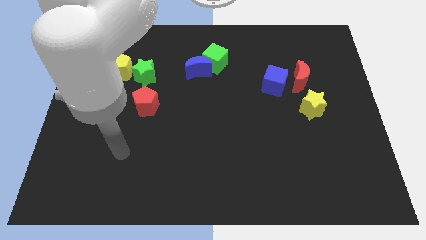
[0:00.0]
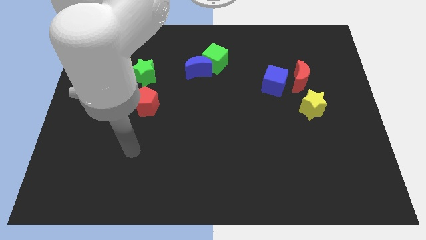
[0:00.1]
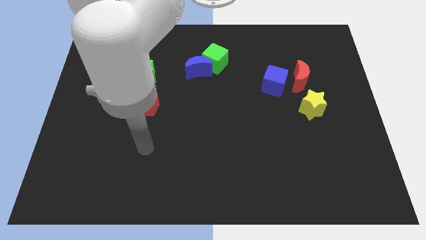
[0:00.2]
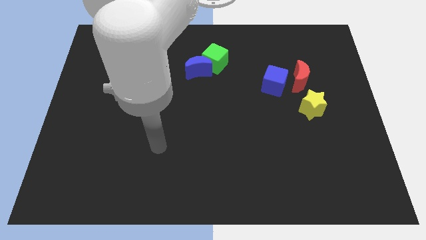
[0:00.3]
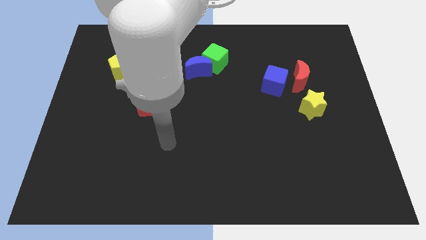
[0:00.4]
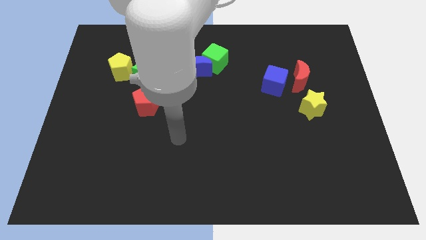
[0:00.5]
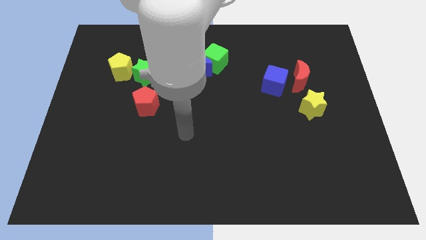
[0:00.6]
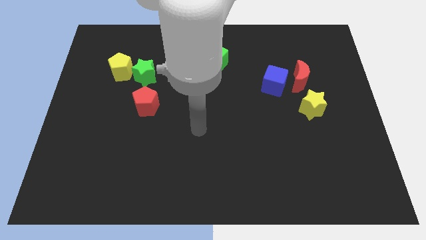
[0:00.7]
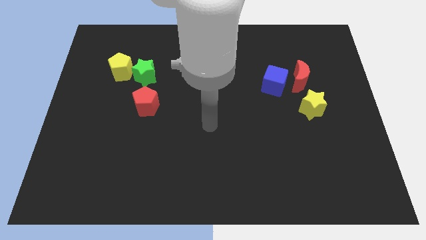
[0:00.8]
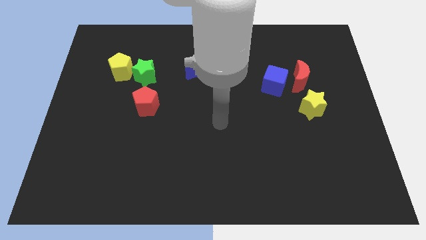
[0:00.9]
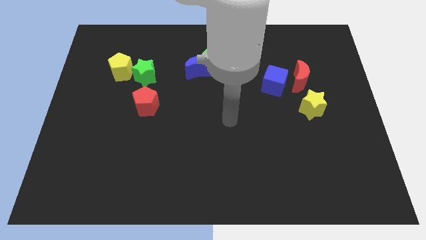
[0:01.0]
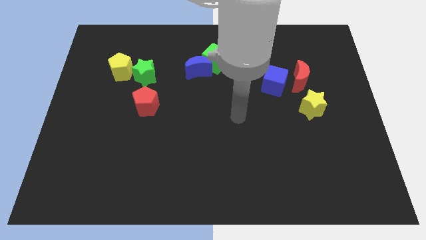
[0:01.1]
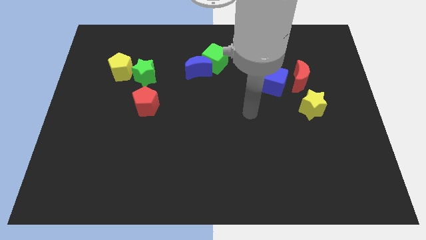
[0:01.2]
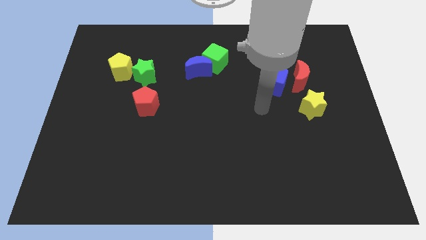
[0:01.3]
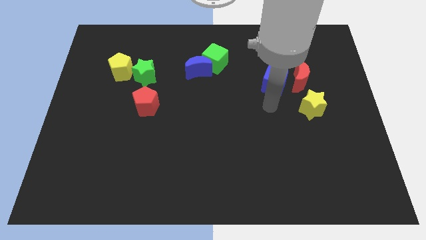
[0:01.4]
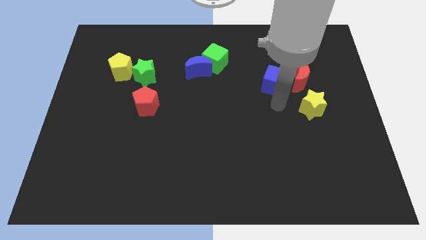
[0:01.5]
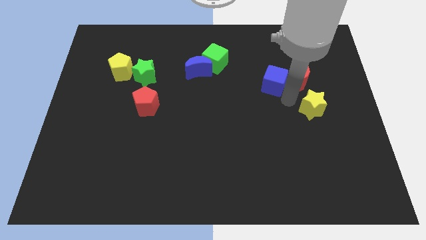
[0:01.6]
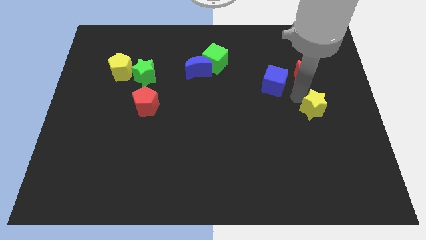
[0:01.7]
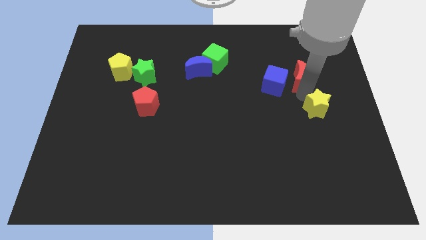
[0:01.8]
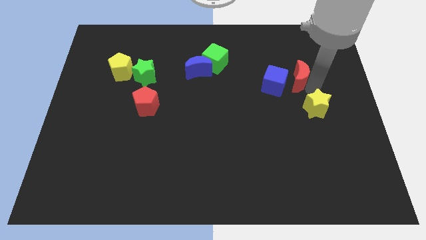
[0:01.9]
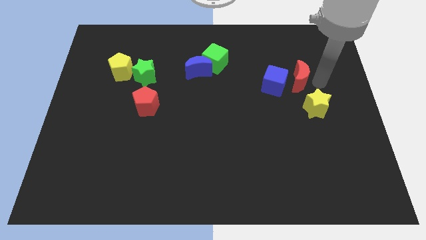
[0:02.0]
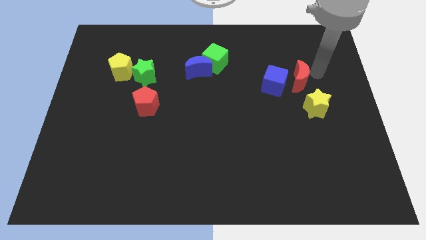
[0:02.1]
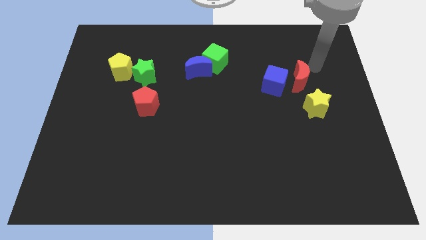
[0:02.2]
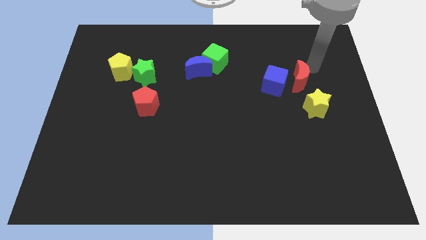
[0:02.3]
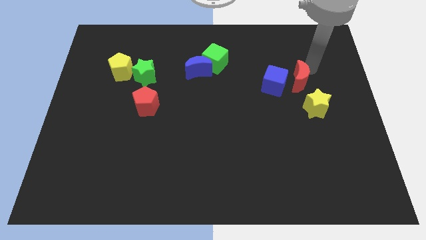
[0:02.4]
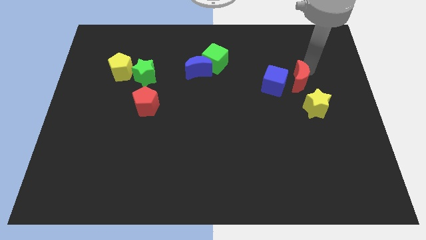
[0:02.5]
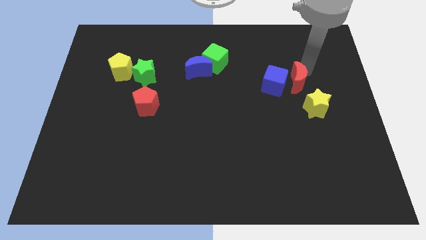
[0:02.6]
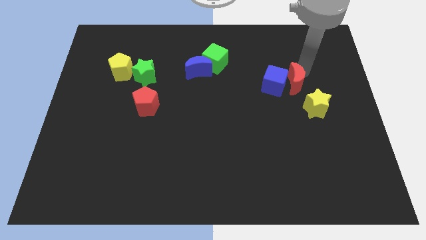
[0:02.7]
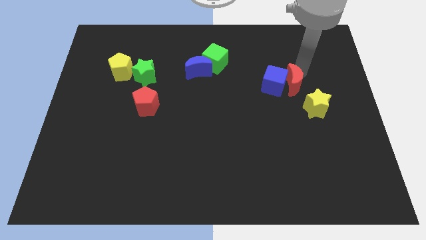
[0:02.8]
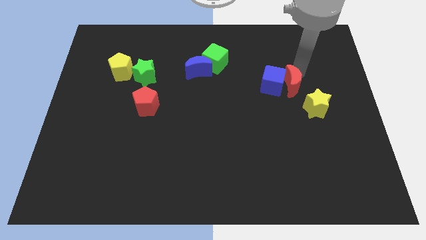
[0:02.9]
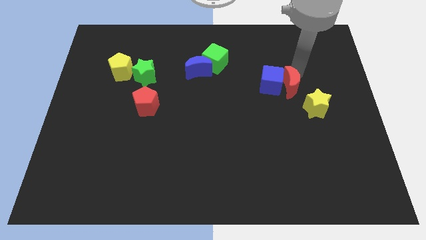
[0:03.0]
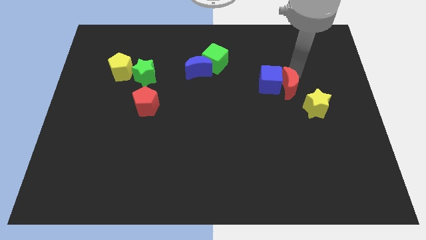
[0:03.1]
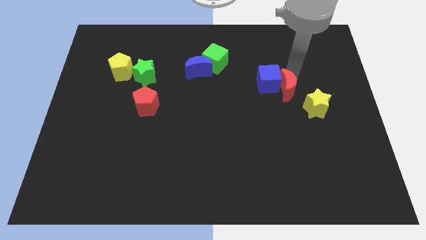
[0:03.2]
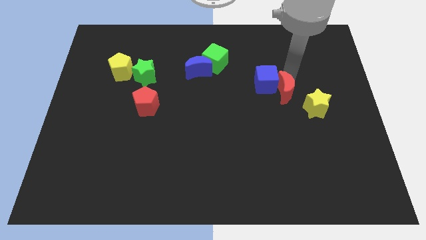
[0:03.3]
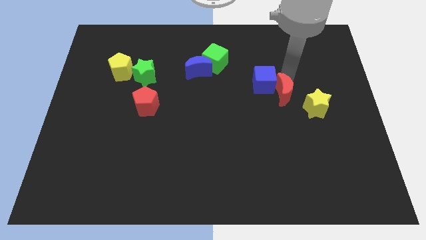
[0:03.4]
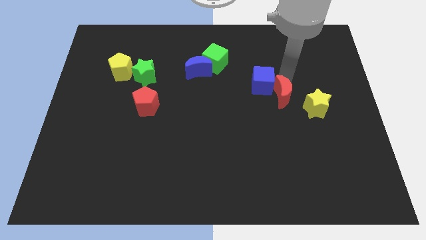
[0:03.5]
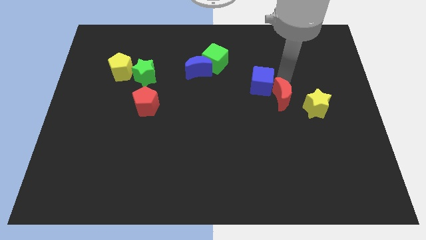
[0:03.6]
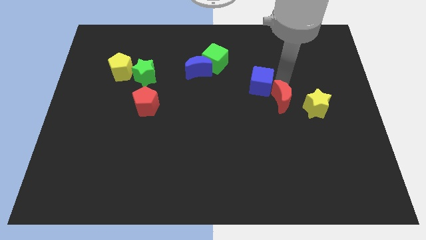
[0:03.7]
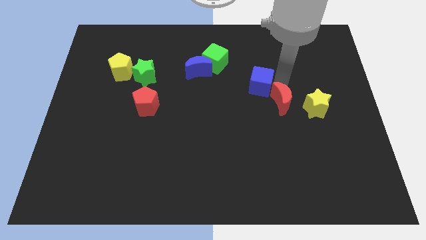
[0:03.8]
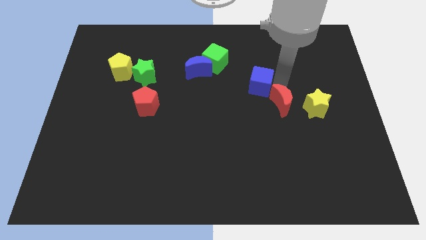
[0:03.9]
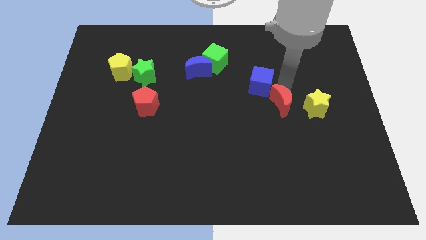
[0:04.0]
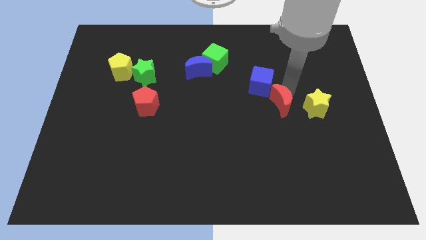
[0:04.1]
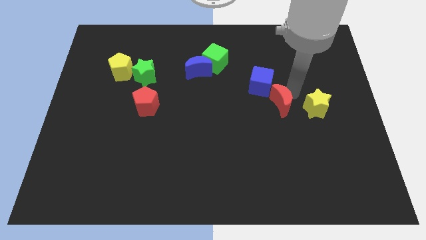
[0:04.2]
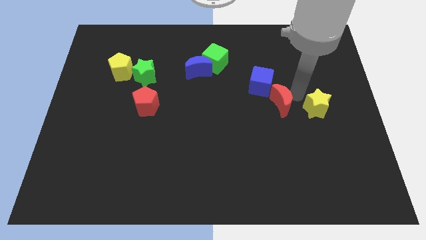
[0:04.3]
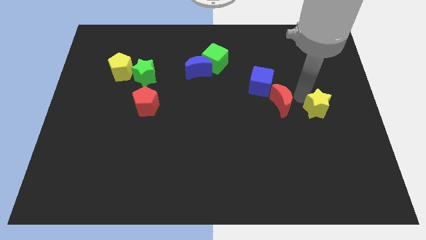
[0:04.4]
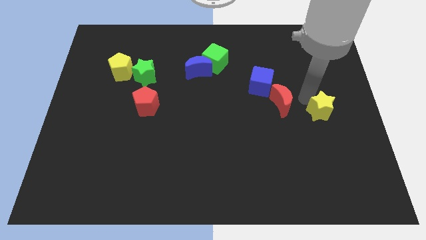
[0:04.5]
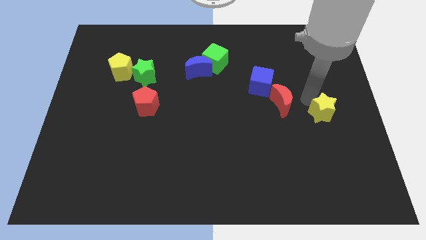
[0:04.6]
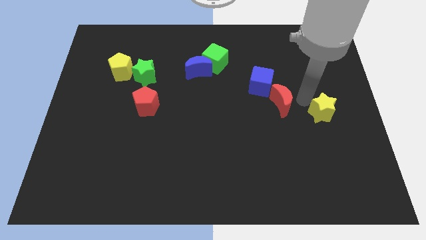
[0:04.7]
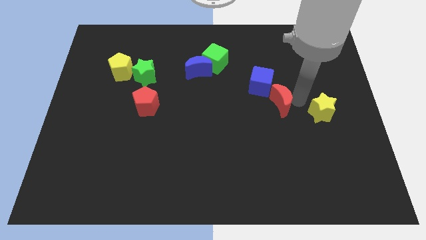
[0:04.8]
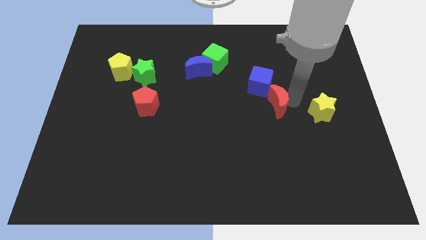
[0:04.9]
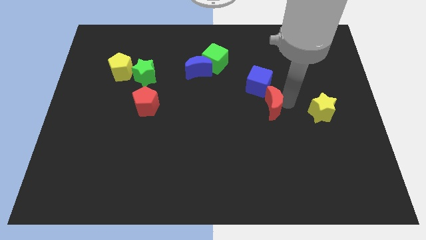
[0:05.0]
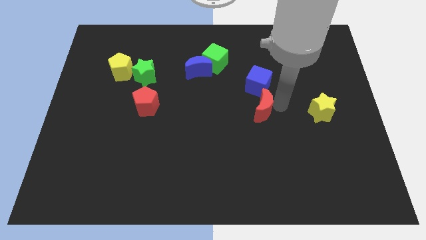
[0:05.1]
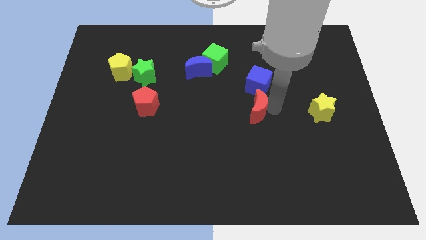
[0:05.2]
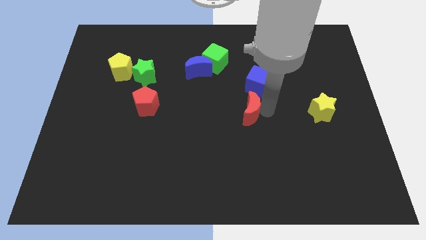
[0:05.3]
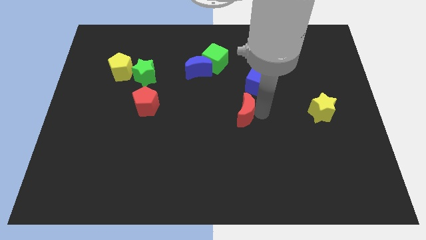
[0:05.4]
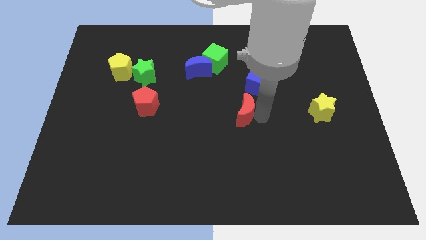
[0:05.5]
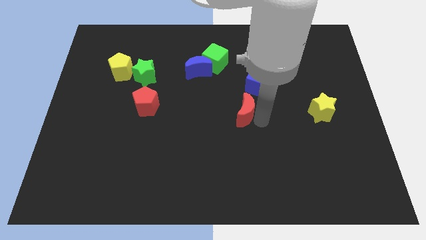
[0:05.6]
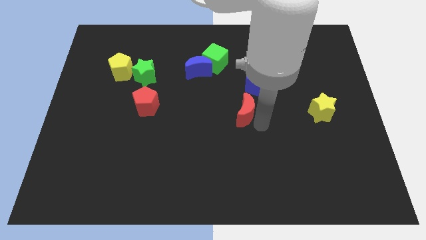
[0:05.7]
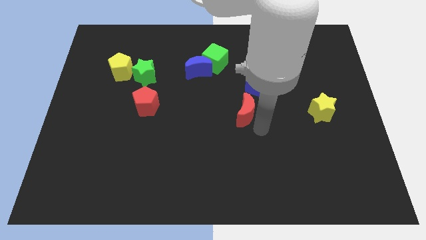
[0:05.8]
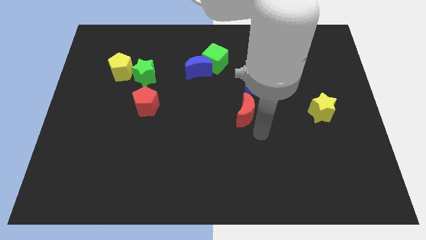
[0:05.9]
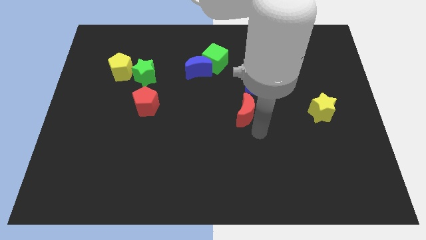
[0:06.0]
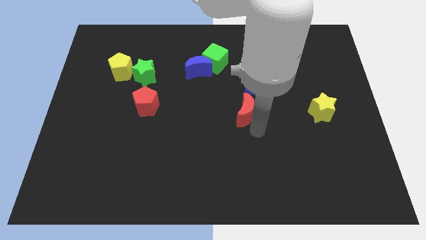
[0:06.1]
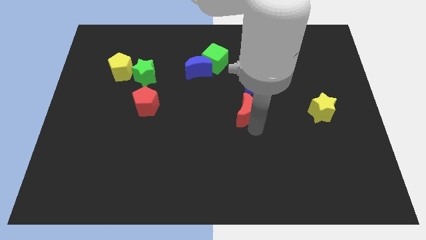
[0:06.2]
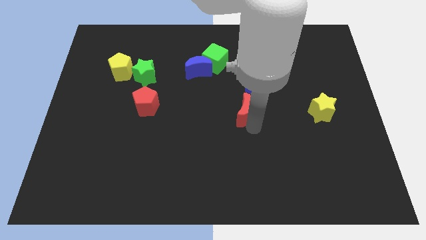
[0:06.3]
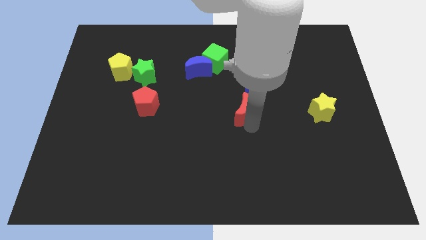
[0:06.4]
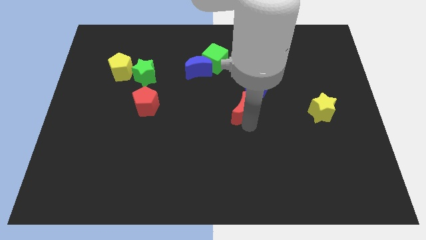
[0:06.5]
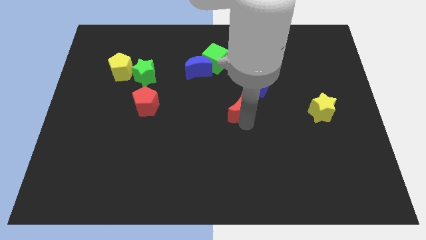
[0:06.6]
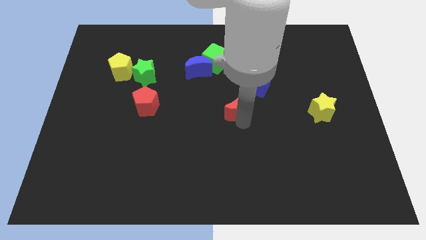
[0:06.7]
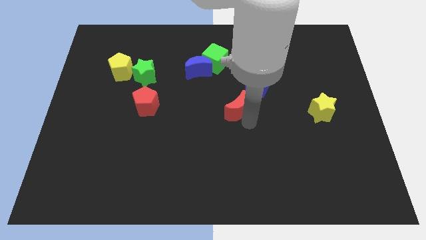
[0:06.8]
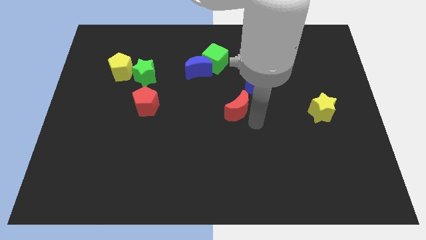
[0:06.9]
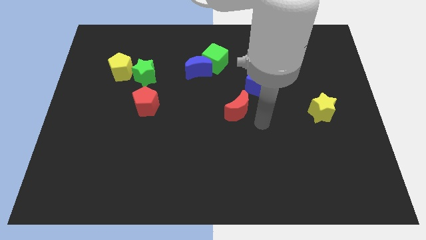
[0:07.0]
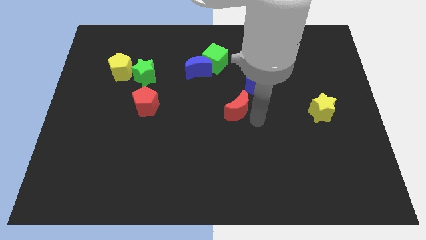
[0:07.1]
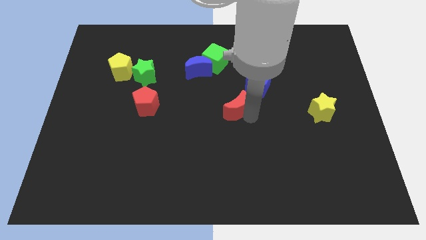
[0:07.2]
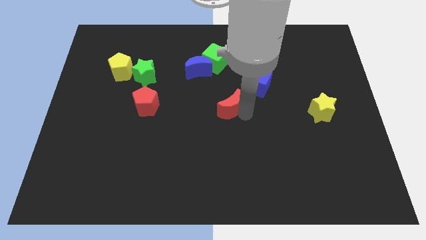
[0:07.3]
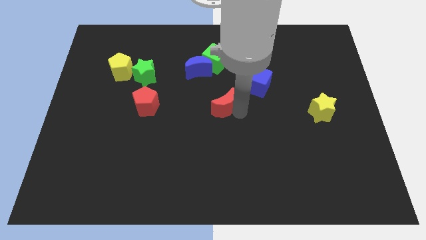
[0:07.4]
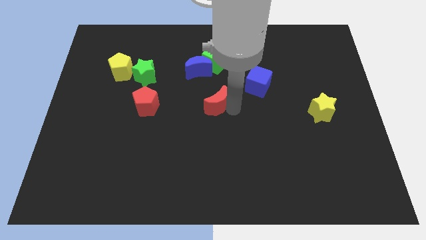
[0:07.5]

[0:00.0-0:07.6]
put the red moon to the bottom side of the blue moon
